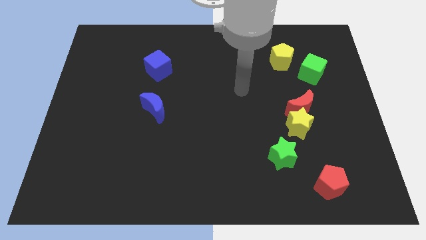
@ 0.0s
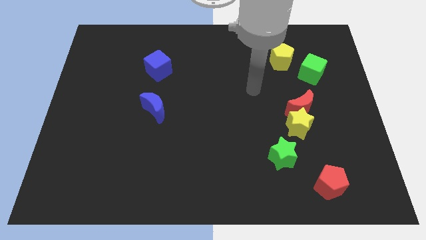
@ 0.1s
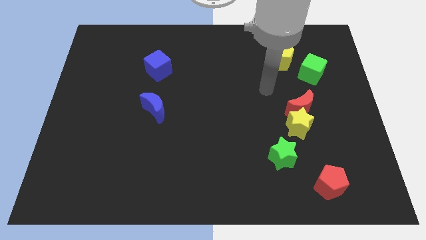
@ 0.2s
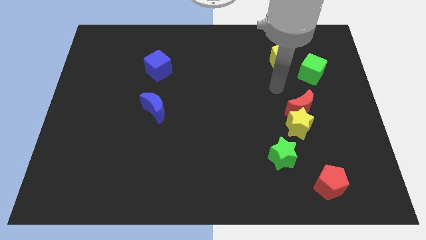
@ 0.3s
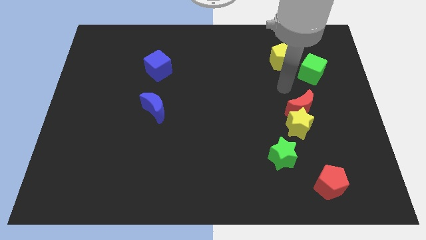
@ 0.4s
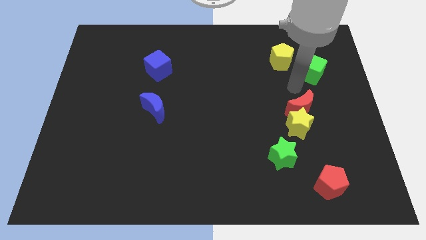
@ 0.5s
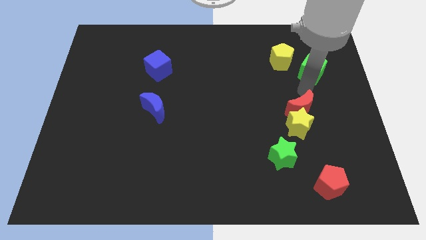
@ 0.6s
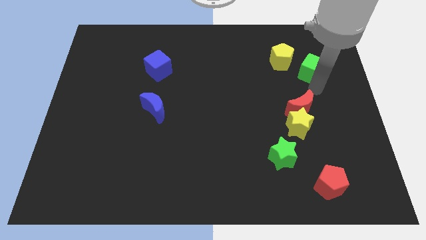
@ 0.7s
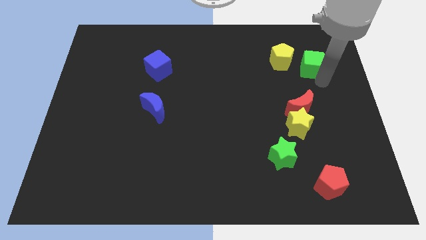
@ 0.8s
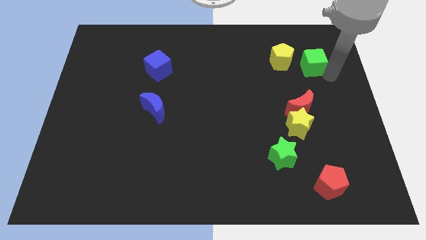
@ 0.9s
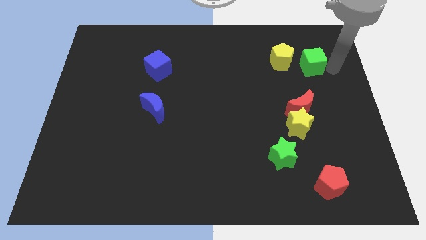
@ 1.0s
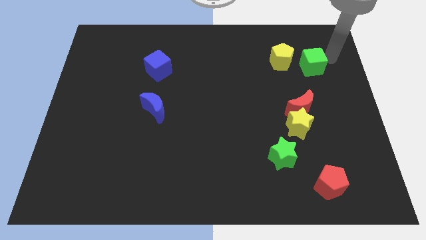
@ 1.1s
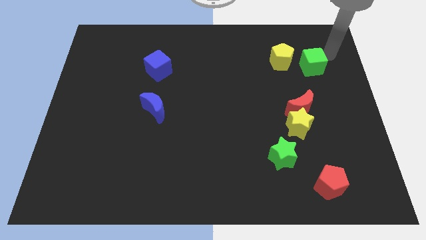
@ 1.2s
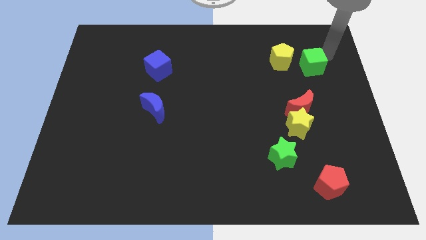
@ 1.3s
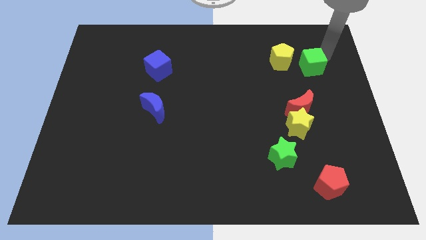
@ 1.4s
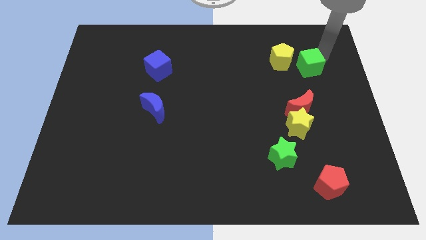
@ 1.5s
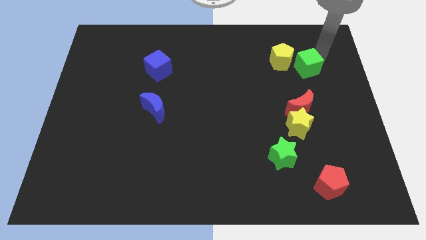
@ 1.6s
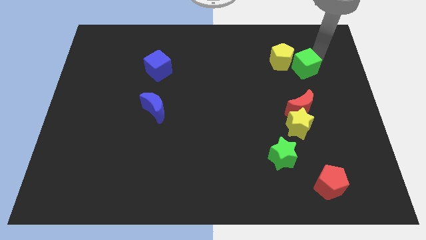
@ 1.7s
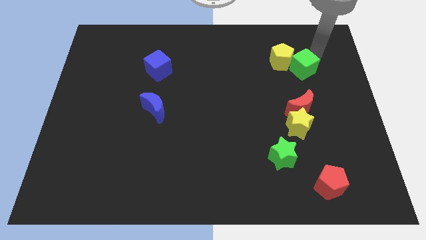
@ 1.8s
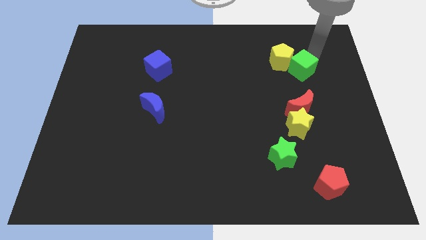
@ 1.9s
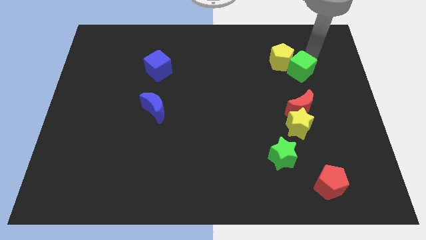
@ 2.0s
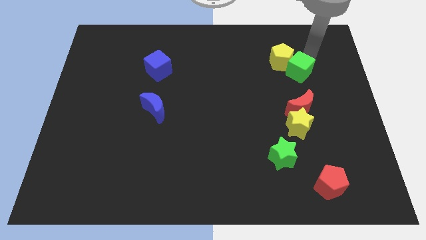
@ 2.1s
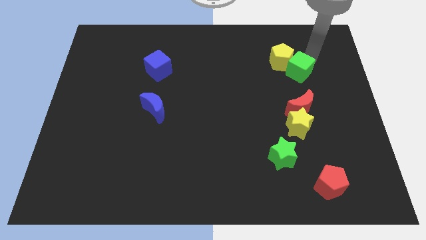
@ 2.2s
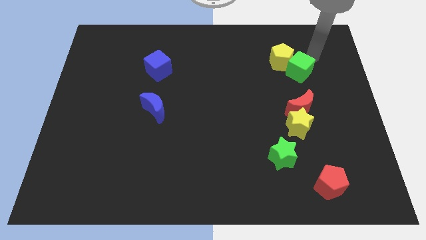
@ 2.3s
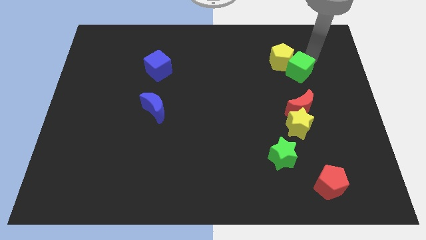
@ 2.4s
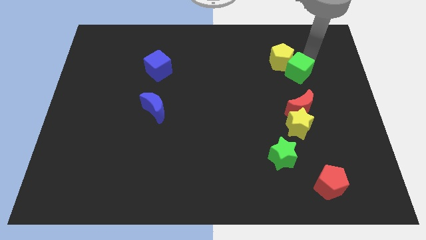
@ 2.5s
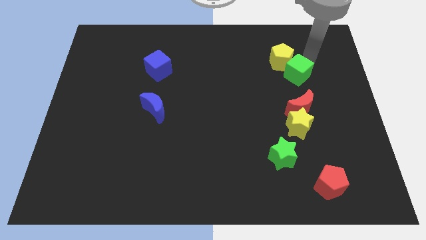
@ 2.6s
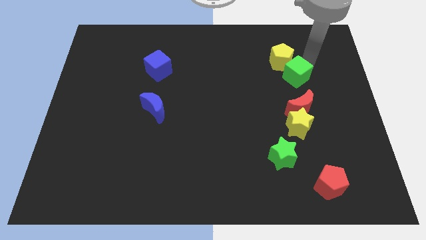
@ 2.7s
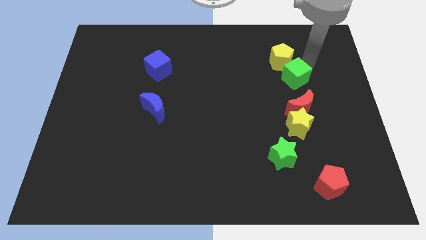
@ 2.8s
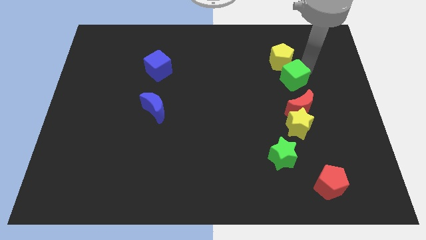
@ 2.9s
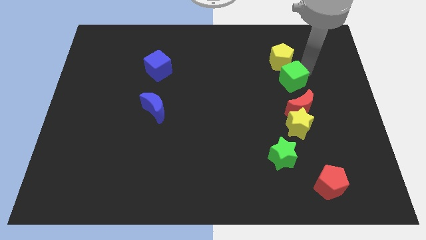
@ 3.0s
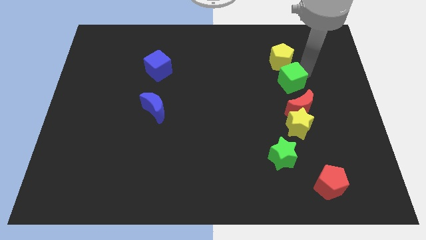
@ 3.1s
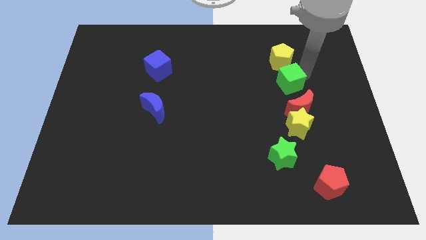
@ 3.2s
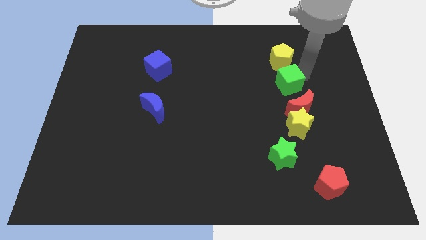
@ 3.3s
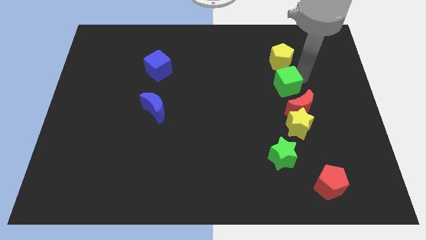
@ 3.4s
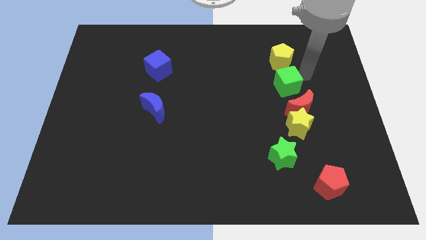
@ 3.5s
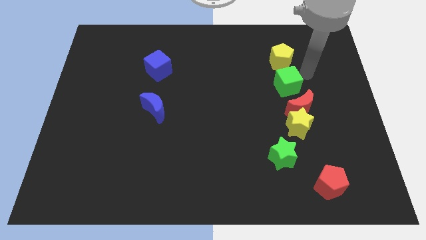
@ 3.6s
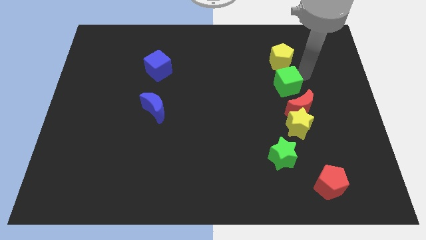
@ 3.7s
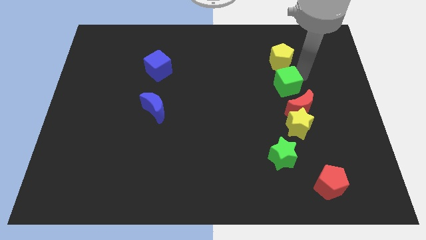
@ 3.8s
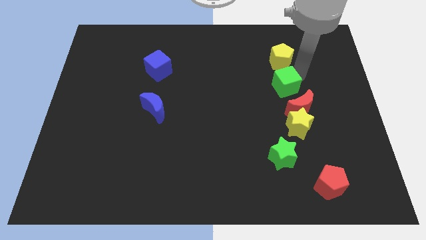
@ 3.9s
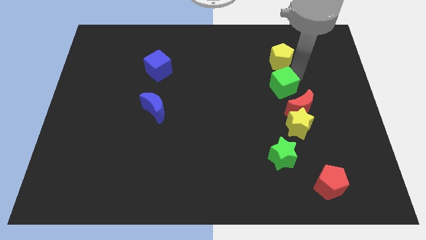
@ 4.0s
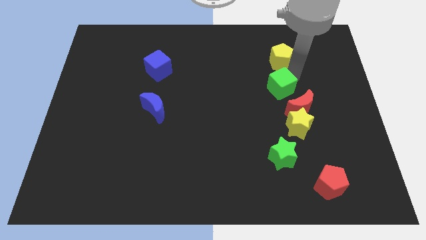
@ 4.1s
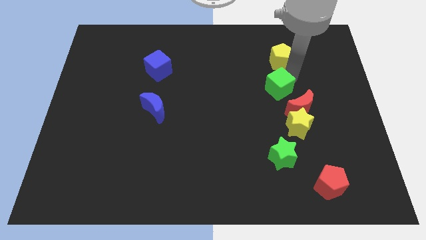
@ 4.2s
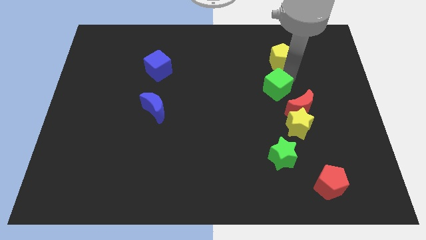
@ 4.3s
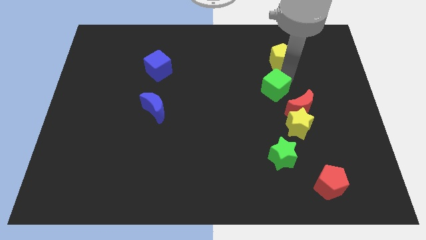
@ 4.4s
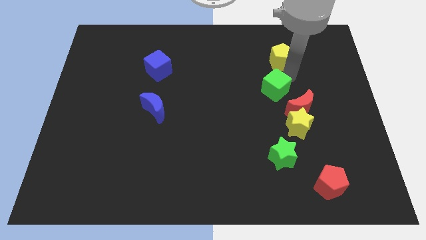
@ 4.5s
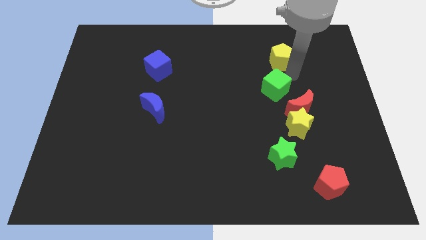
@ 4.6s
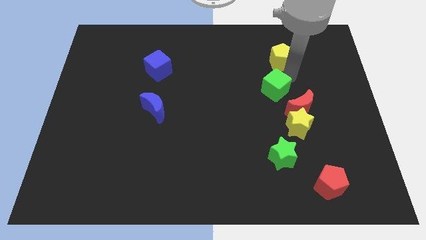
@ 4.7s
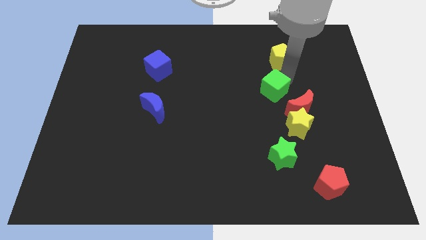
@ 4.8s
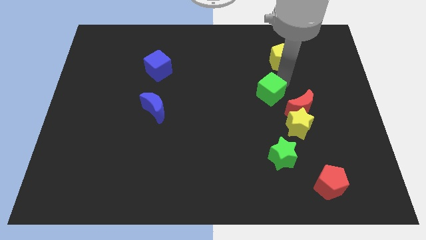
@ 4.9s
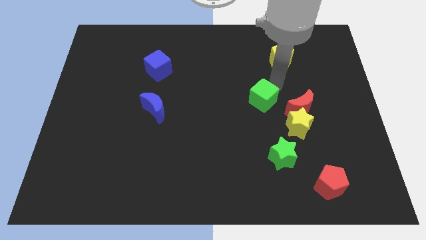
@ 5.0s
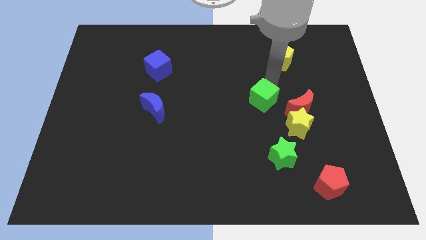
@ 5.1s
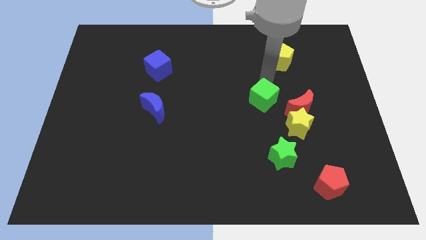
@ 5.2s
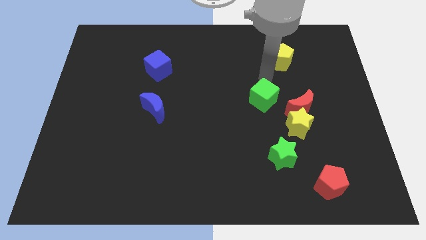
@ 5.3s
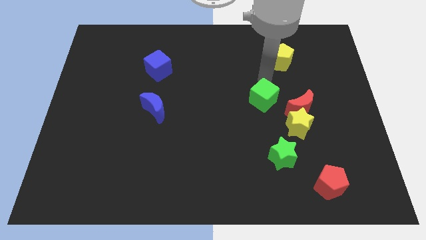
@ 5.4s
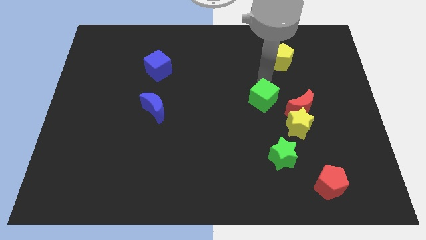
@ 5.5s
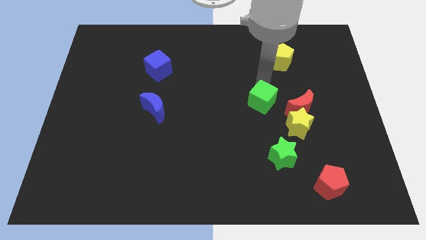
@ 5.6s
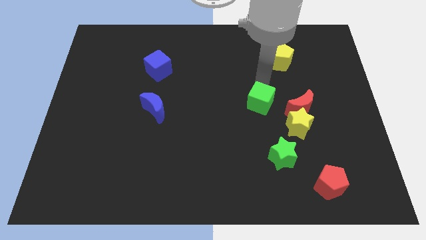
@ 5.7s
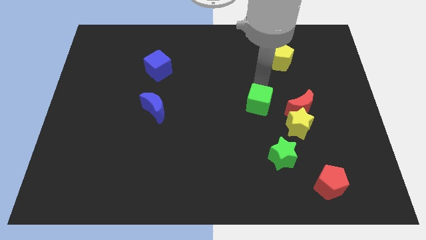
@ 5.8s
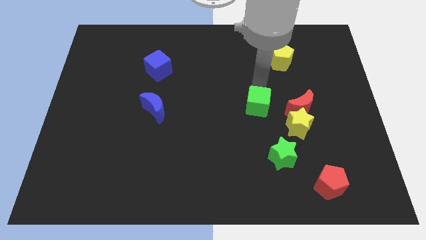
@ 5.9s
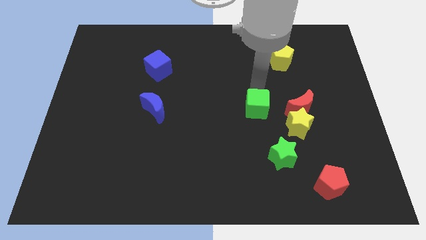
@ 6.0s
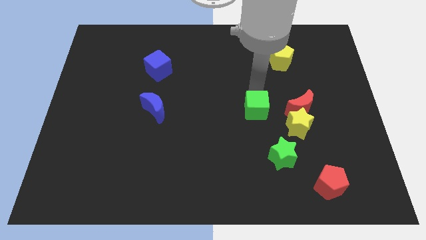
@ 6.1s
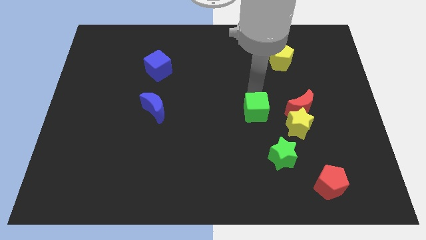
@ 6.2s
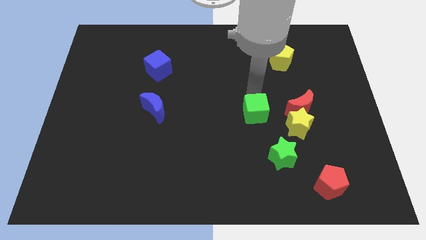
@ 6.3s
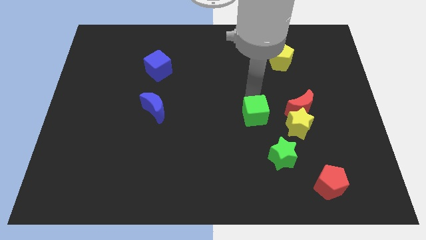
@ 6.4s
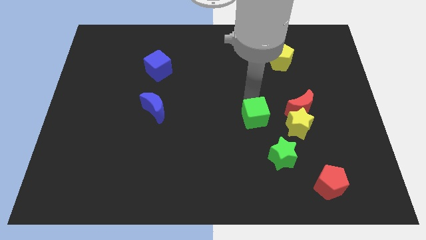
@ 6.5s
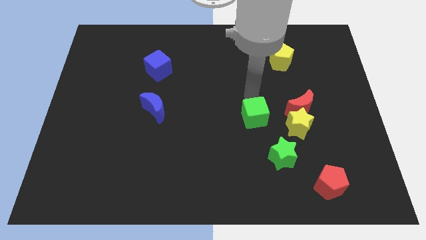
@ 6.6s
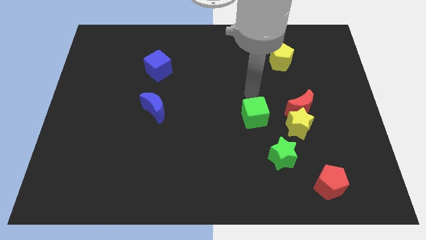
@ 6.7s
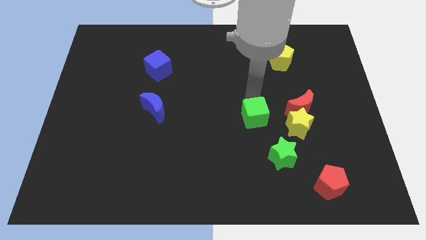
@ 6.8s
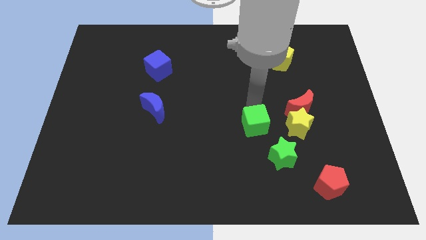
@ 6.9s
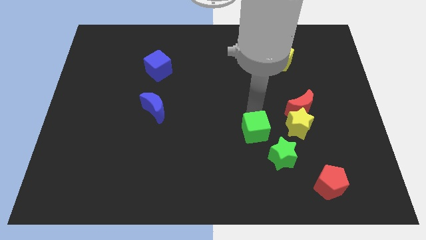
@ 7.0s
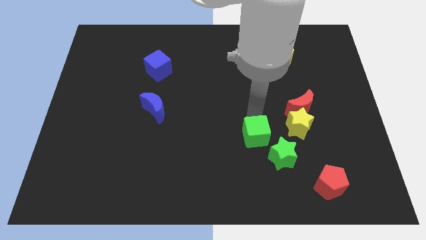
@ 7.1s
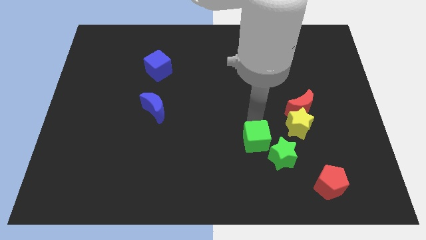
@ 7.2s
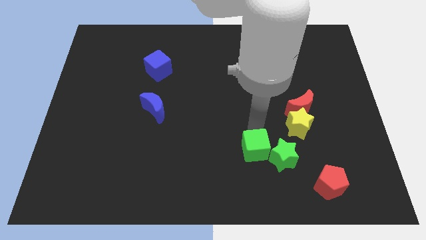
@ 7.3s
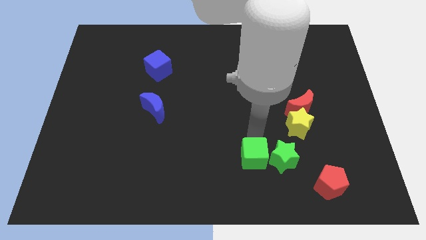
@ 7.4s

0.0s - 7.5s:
slide the green cube to the bottom left of the green star

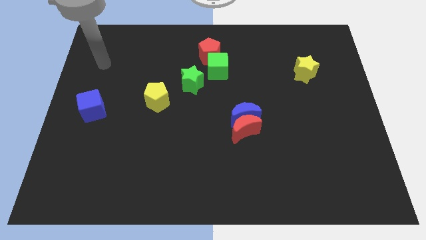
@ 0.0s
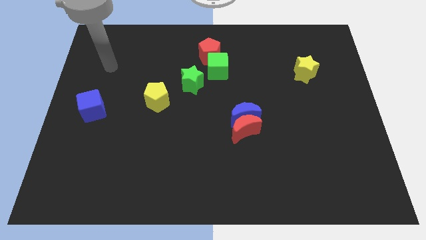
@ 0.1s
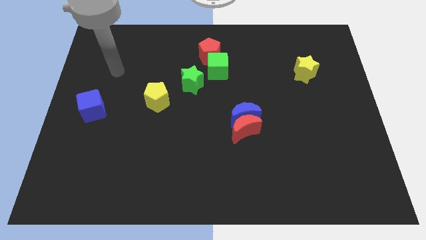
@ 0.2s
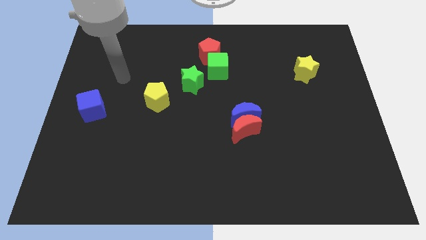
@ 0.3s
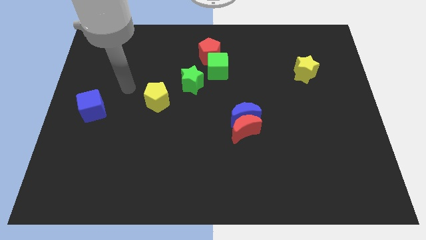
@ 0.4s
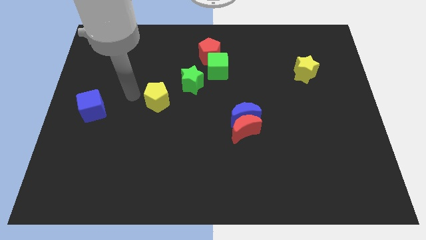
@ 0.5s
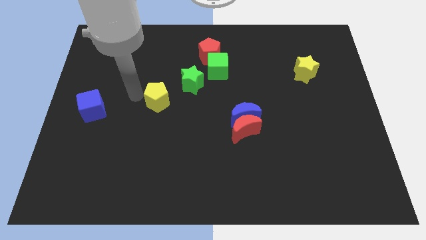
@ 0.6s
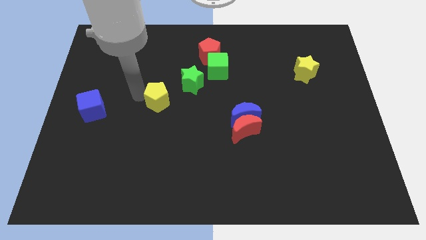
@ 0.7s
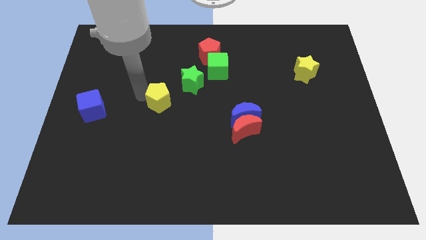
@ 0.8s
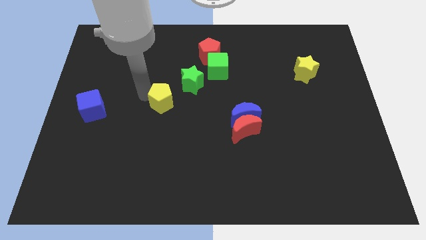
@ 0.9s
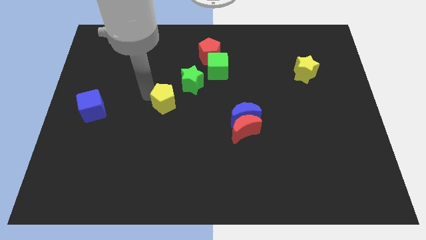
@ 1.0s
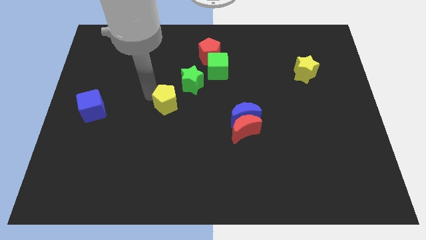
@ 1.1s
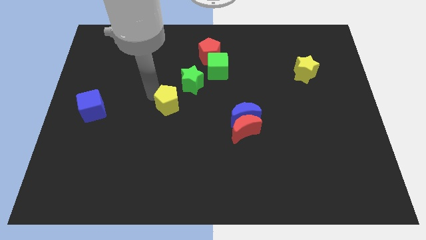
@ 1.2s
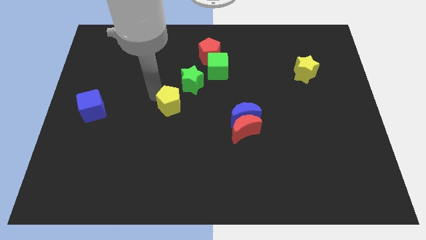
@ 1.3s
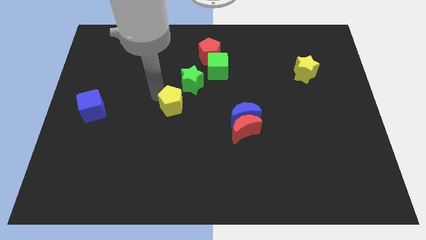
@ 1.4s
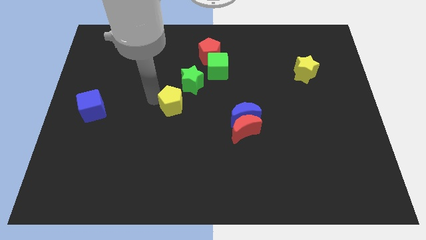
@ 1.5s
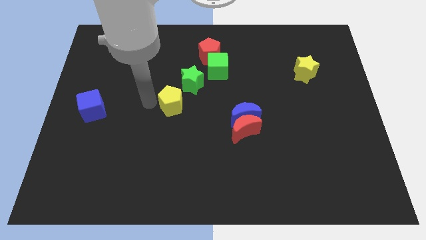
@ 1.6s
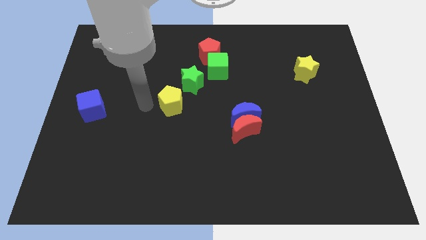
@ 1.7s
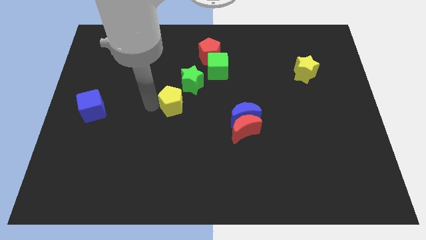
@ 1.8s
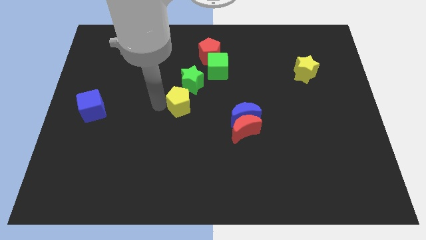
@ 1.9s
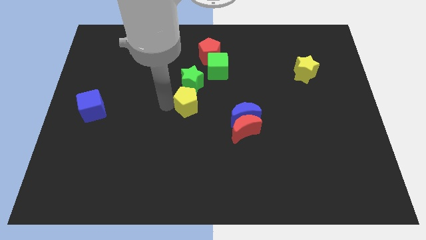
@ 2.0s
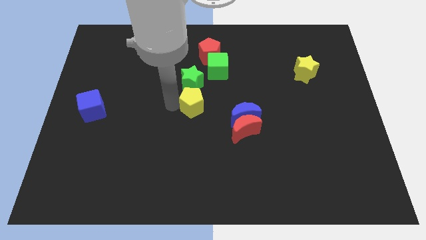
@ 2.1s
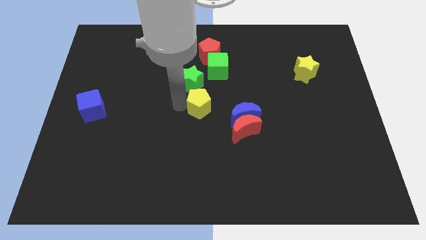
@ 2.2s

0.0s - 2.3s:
move the yellow pentagon below the green cube
